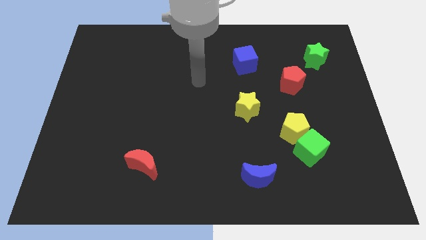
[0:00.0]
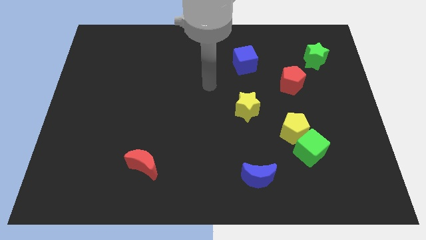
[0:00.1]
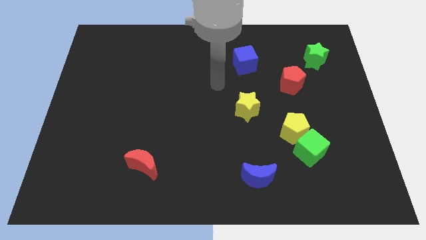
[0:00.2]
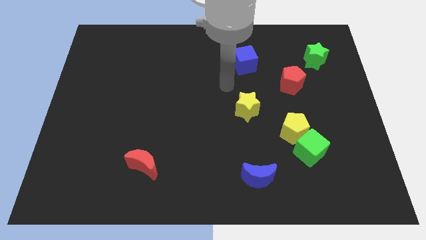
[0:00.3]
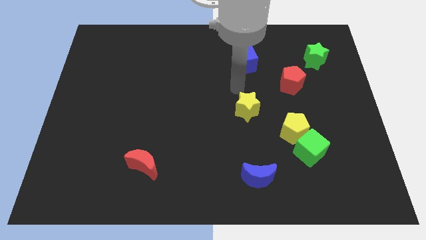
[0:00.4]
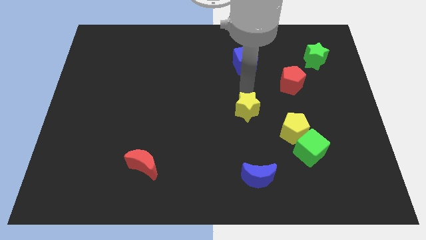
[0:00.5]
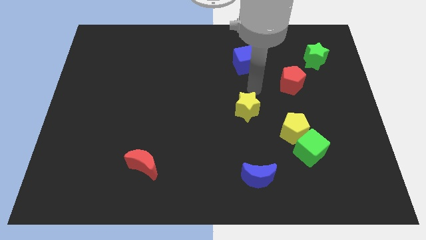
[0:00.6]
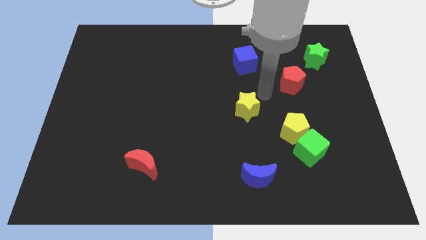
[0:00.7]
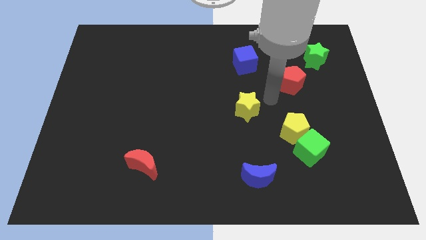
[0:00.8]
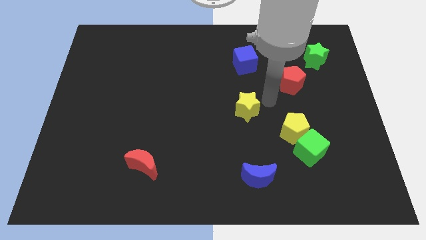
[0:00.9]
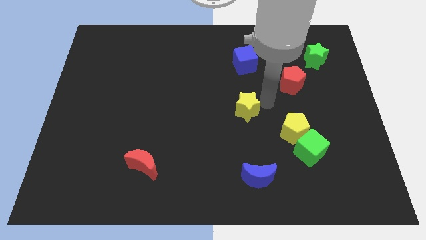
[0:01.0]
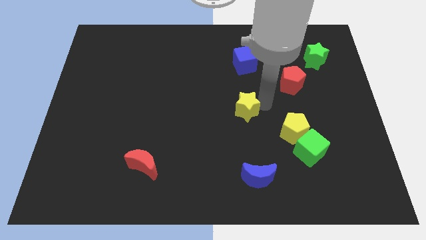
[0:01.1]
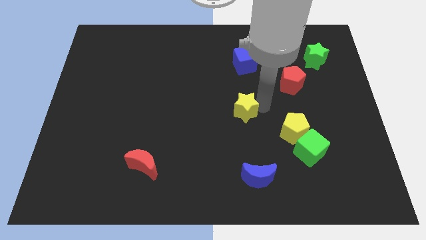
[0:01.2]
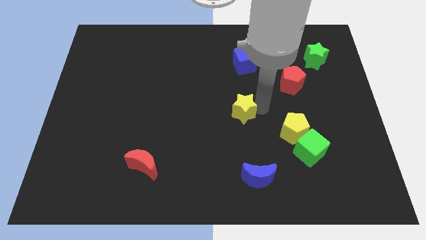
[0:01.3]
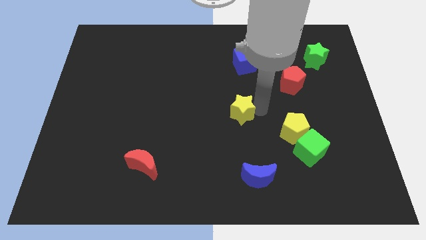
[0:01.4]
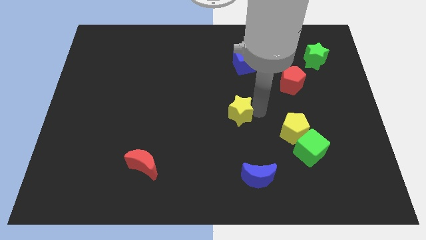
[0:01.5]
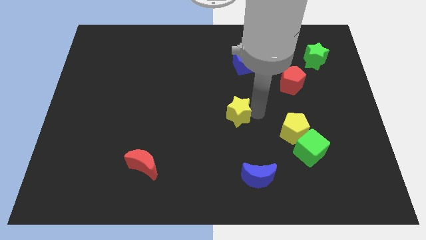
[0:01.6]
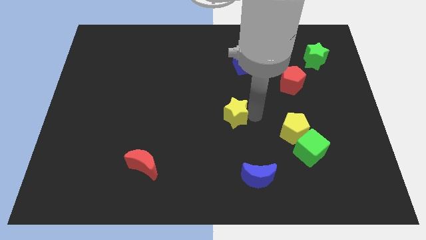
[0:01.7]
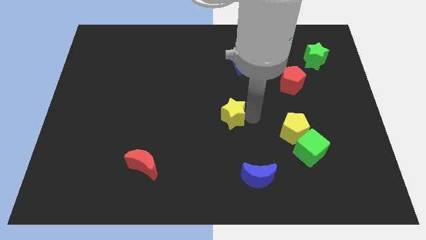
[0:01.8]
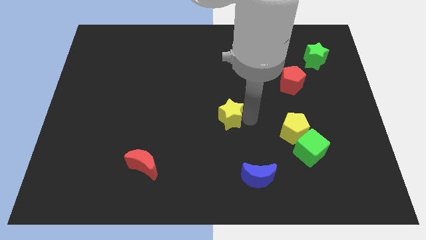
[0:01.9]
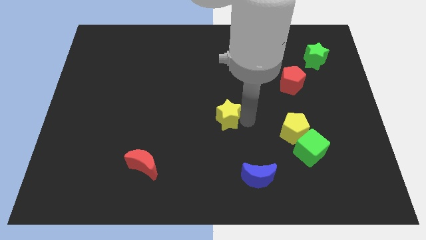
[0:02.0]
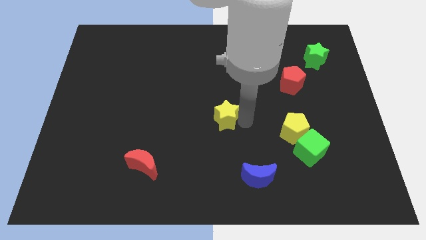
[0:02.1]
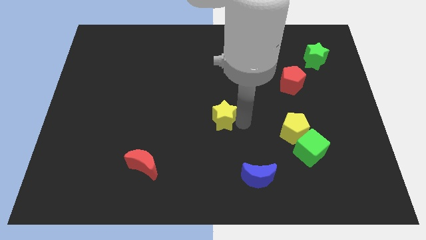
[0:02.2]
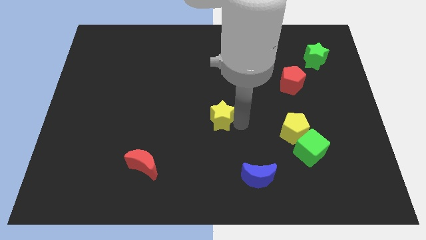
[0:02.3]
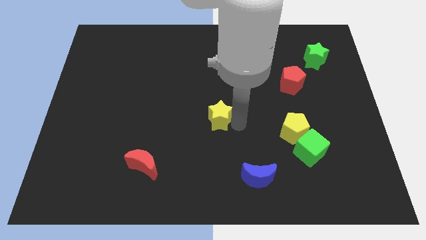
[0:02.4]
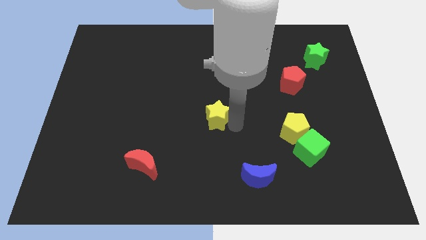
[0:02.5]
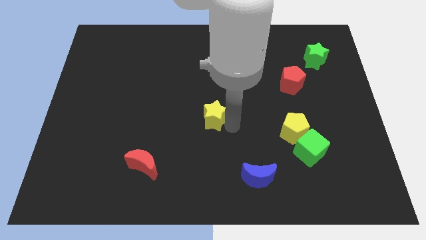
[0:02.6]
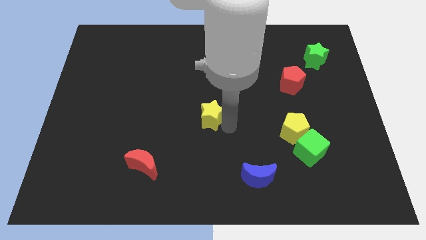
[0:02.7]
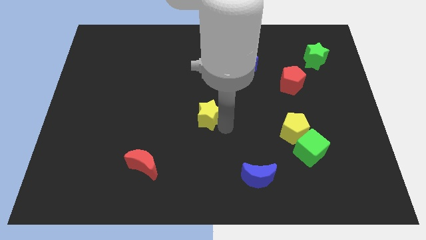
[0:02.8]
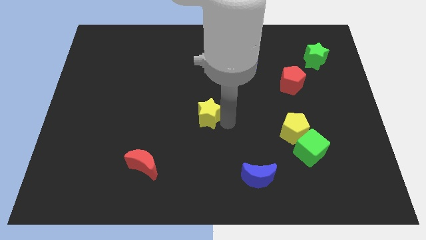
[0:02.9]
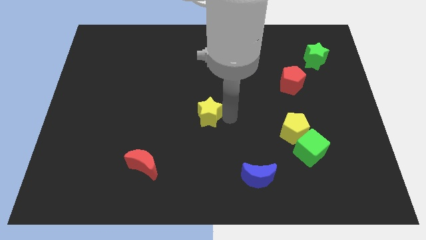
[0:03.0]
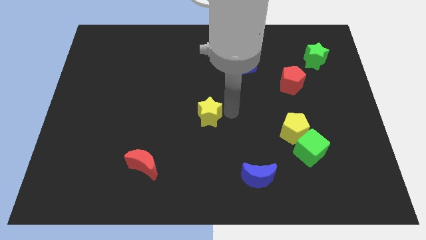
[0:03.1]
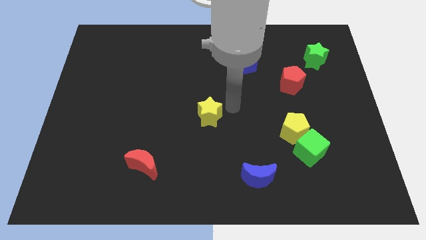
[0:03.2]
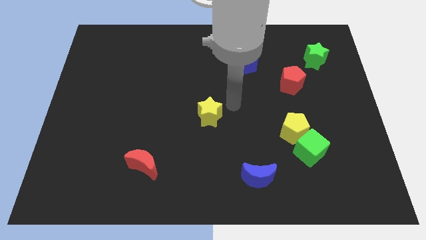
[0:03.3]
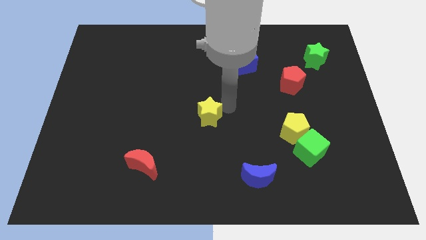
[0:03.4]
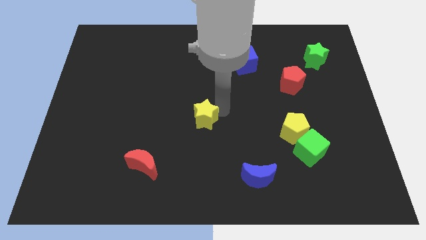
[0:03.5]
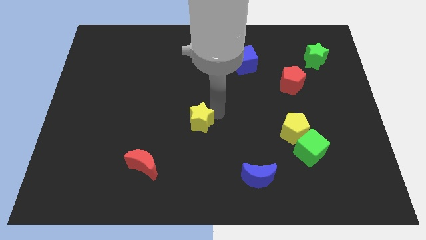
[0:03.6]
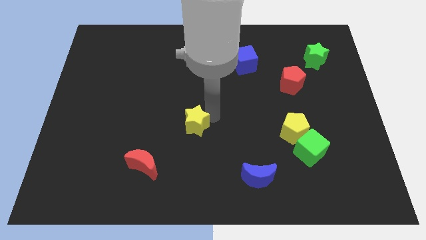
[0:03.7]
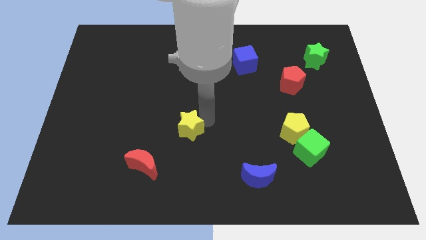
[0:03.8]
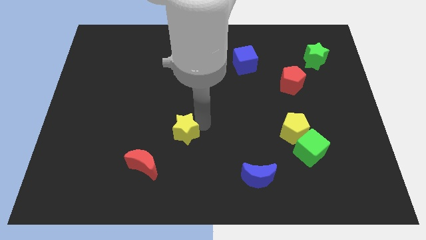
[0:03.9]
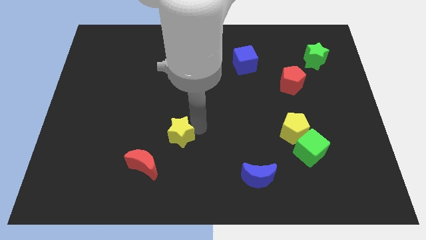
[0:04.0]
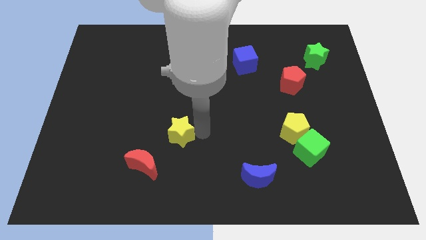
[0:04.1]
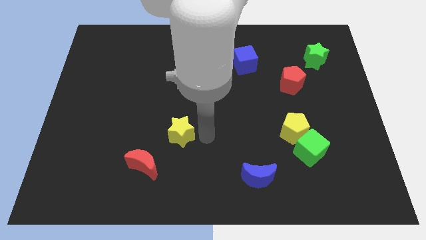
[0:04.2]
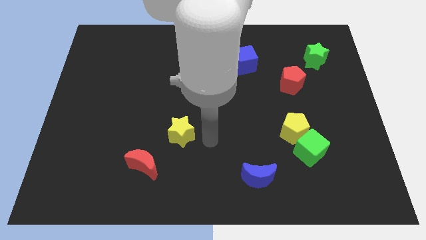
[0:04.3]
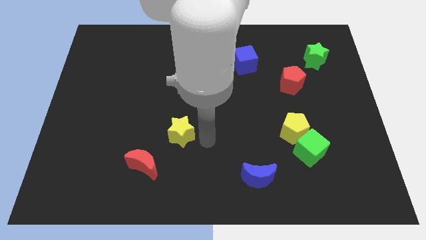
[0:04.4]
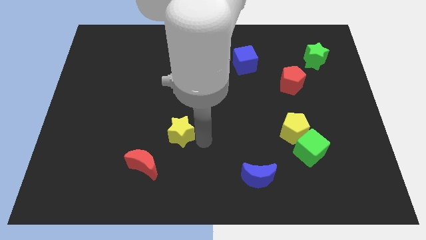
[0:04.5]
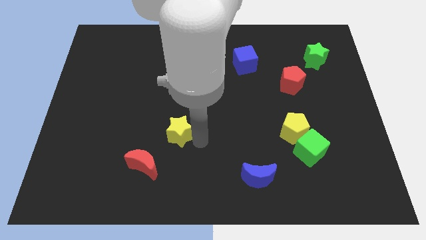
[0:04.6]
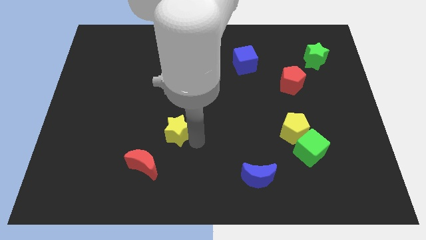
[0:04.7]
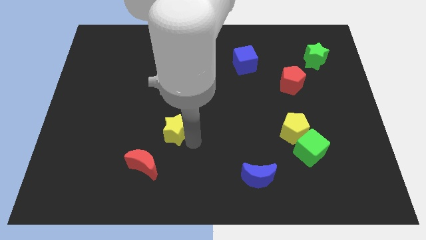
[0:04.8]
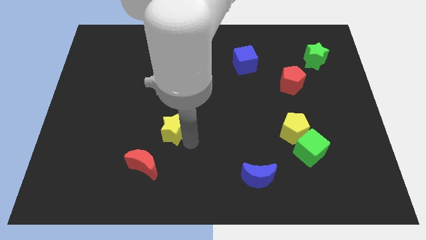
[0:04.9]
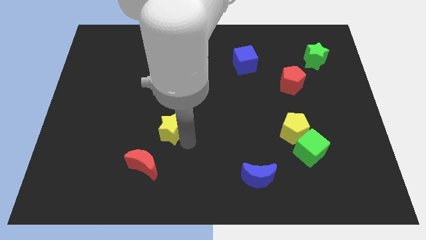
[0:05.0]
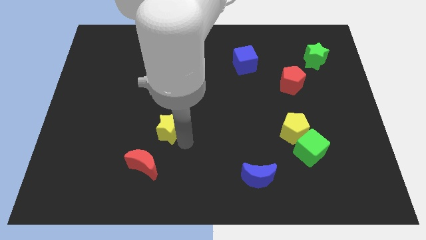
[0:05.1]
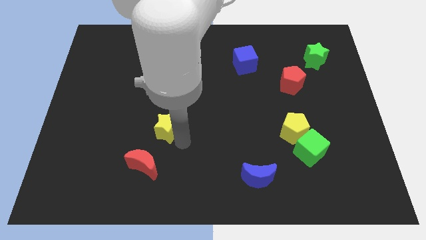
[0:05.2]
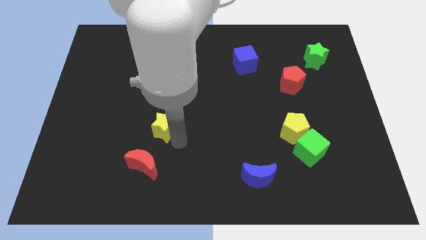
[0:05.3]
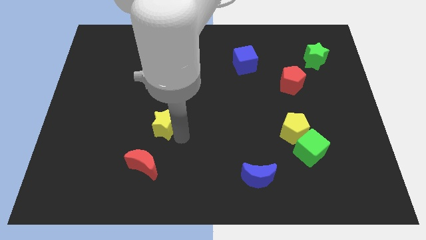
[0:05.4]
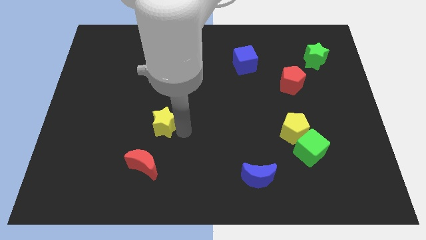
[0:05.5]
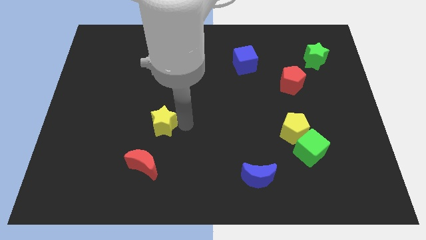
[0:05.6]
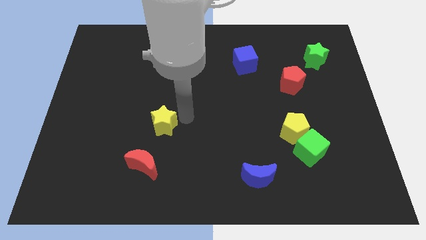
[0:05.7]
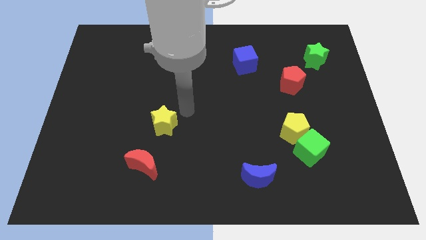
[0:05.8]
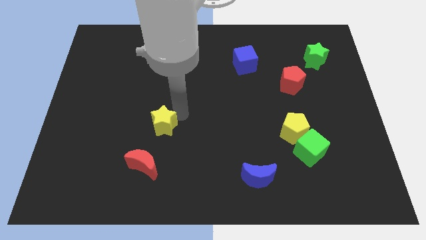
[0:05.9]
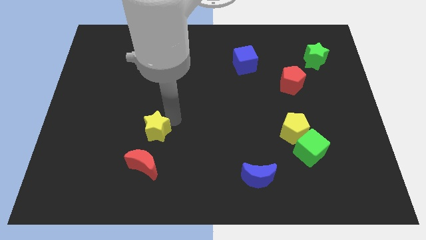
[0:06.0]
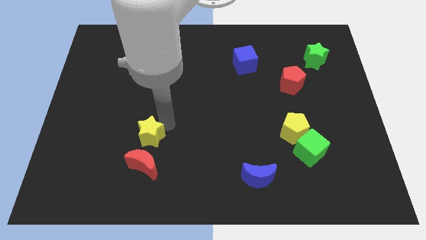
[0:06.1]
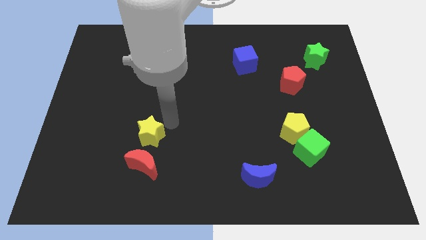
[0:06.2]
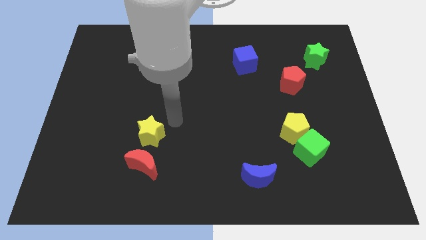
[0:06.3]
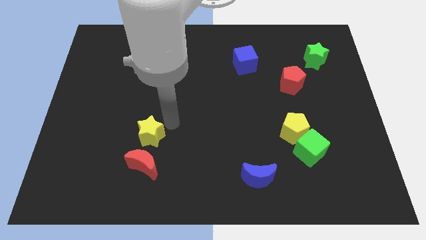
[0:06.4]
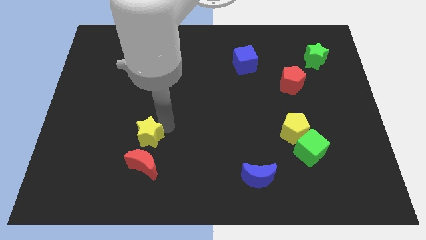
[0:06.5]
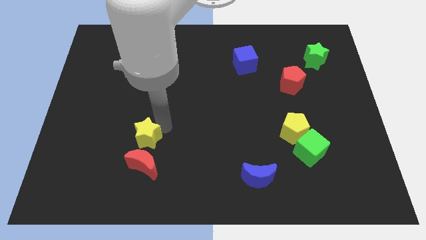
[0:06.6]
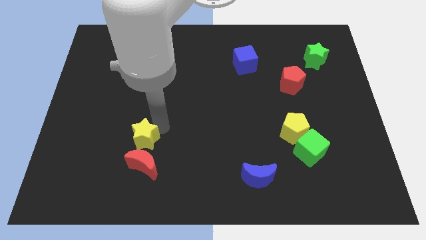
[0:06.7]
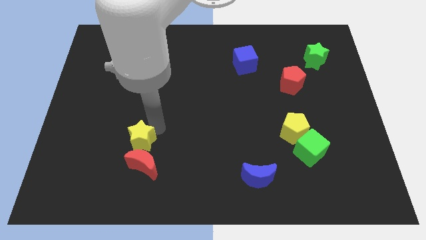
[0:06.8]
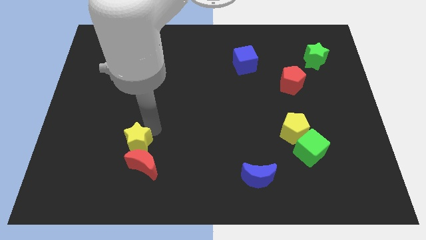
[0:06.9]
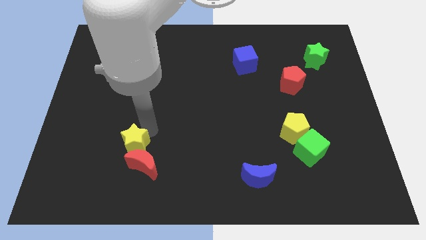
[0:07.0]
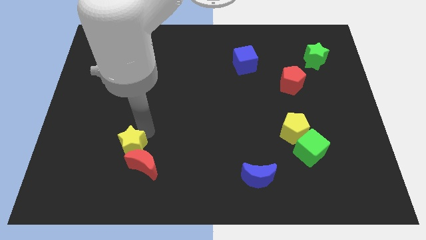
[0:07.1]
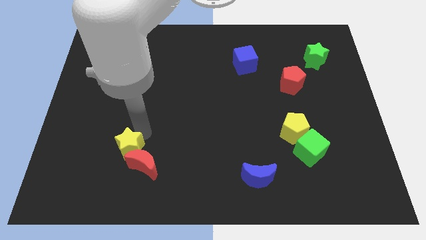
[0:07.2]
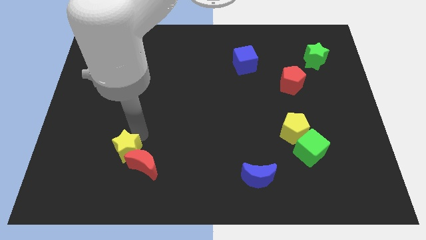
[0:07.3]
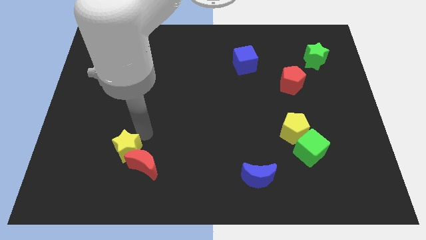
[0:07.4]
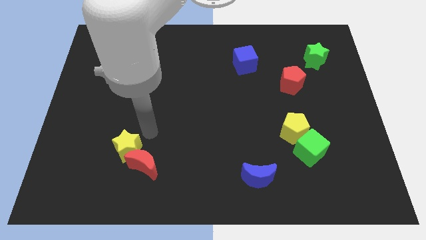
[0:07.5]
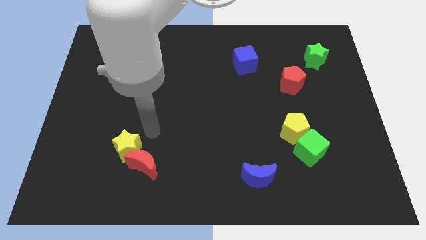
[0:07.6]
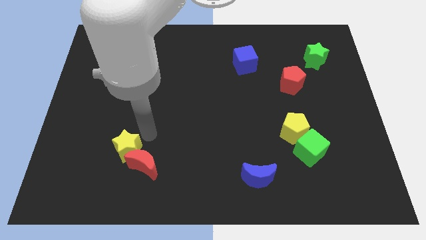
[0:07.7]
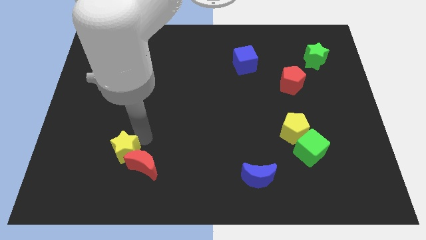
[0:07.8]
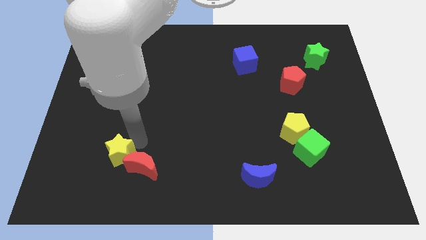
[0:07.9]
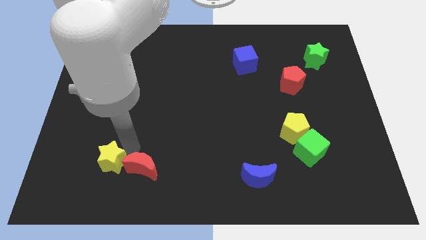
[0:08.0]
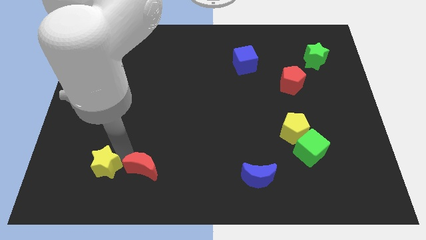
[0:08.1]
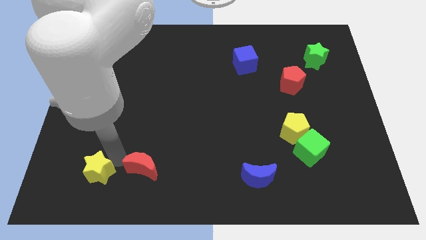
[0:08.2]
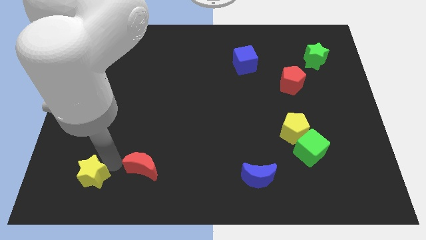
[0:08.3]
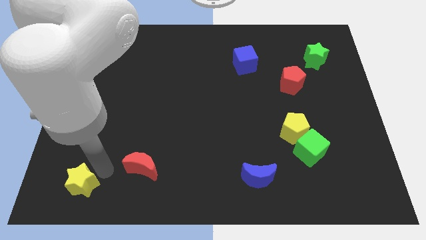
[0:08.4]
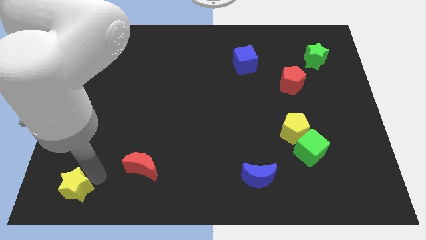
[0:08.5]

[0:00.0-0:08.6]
put the yellow star to the bottom left
